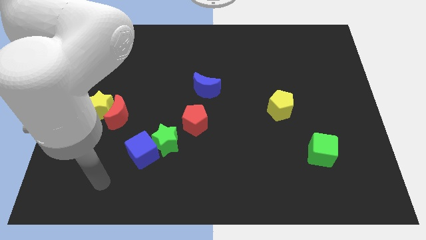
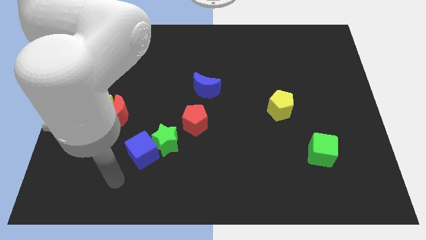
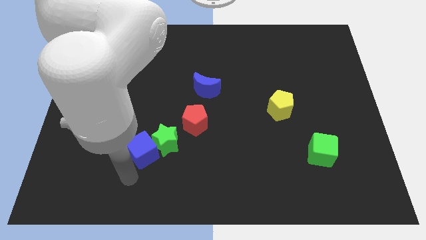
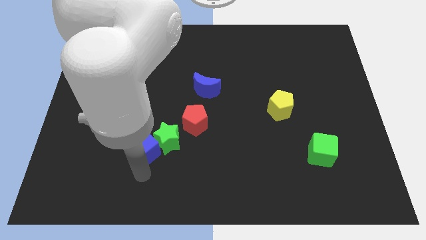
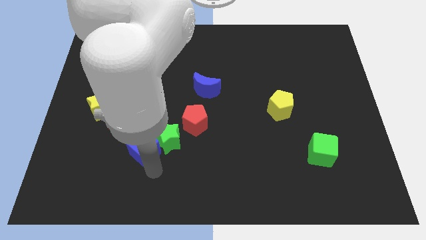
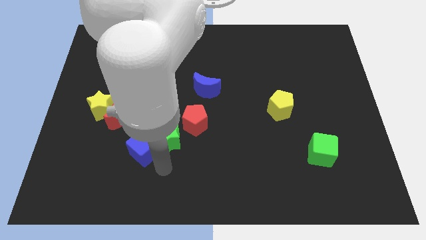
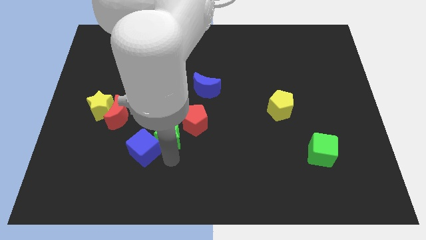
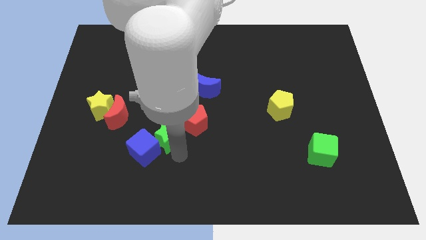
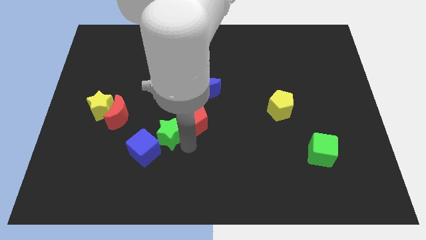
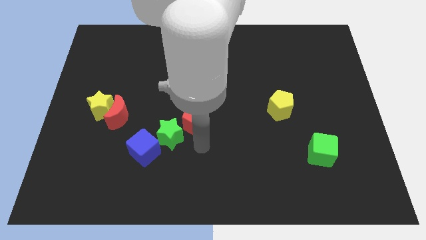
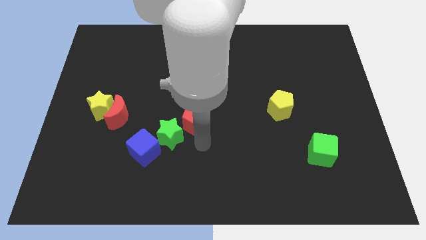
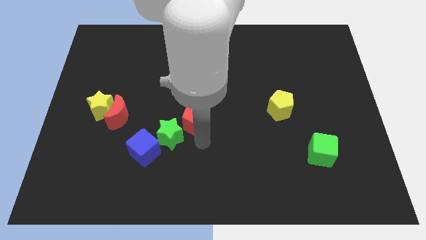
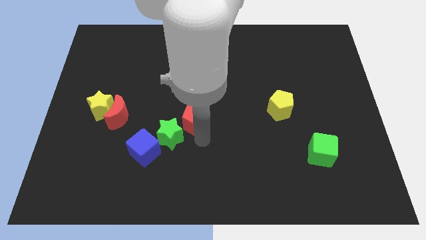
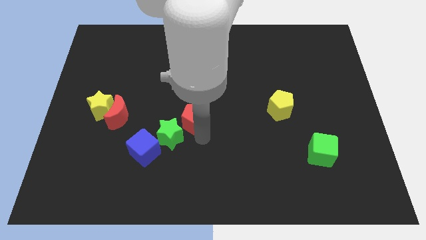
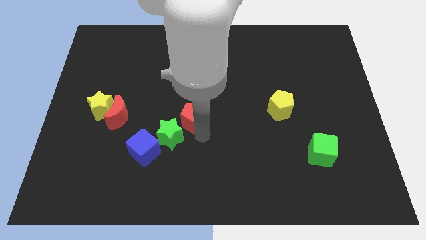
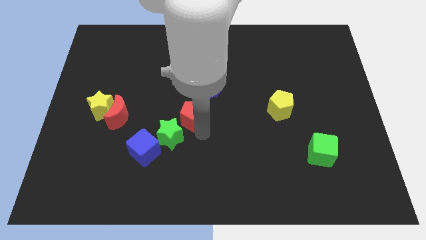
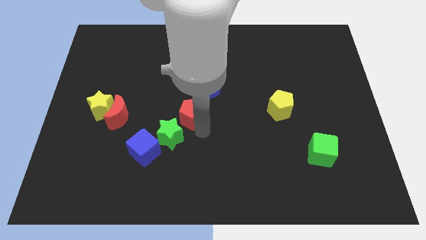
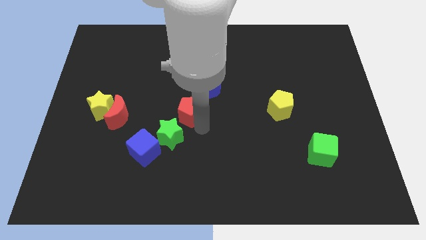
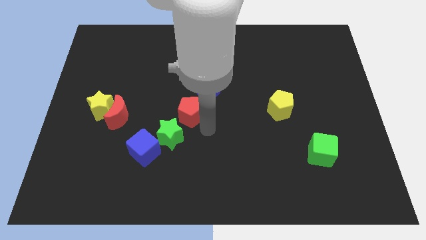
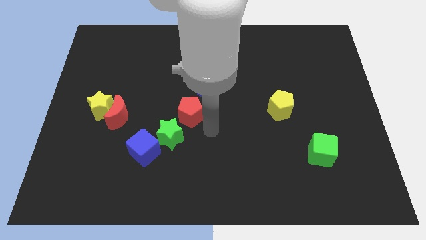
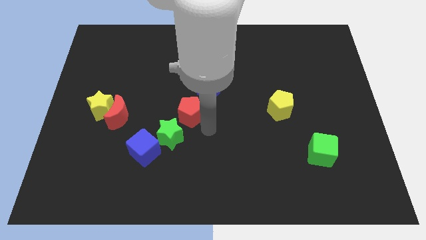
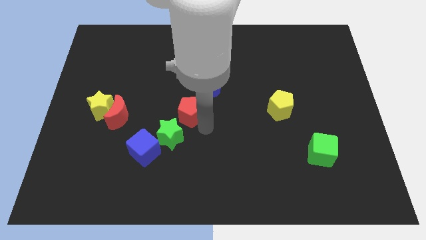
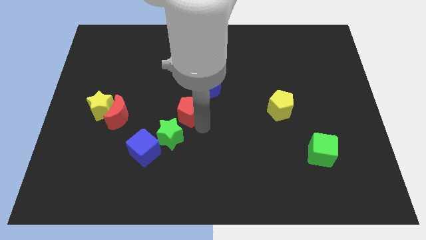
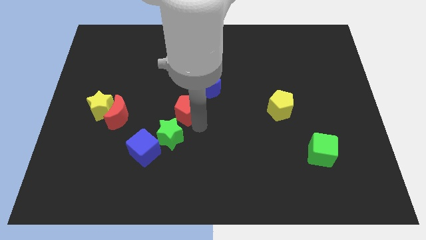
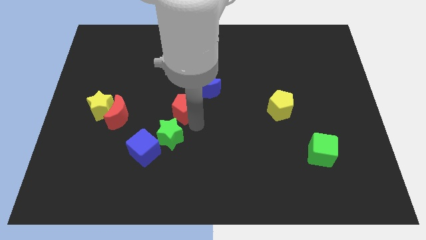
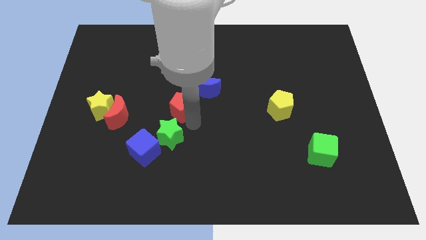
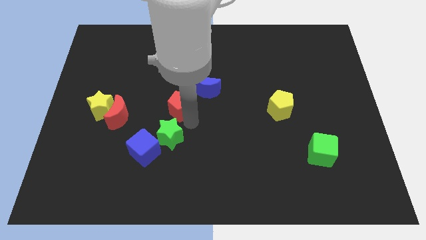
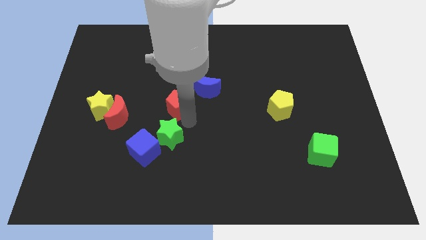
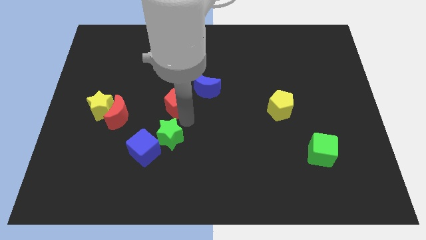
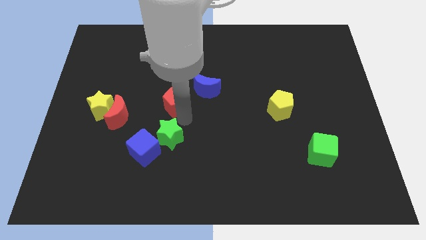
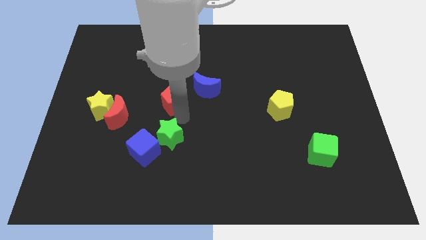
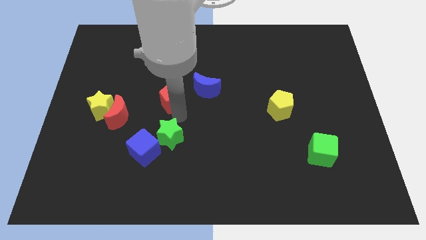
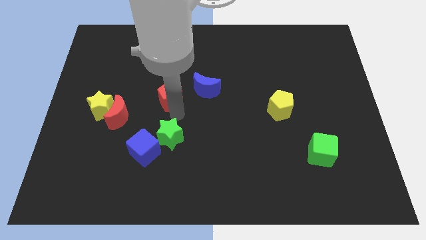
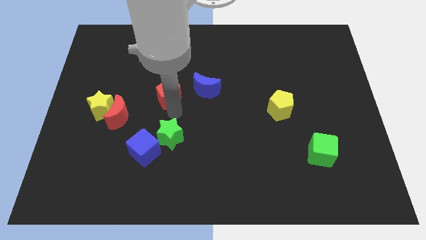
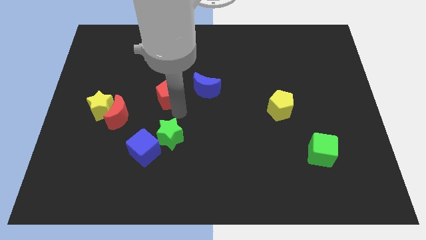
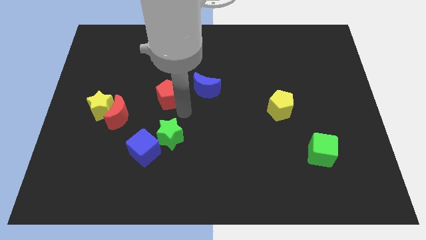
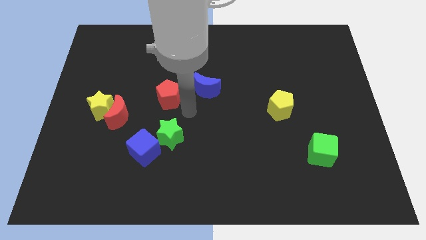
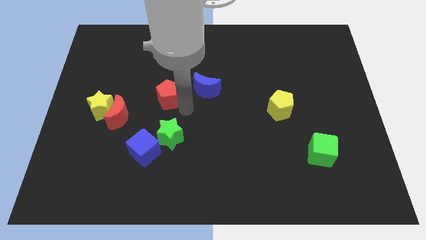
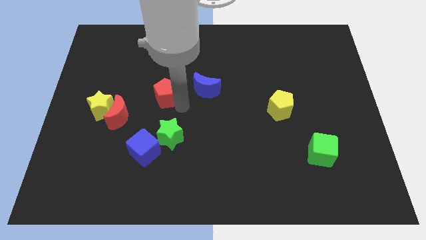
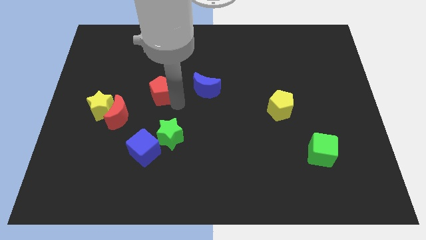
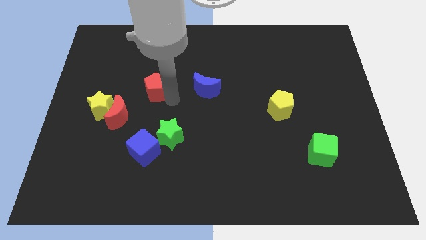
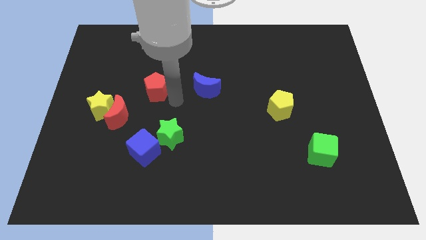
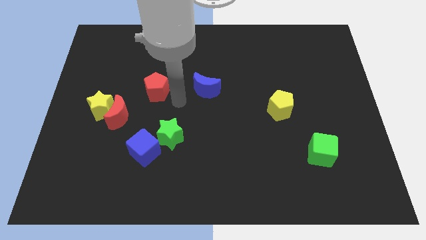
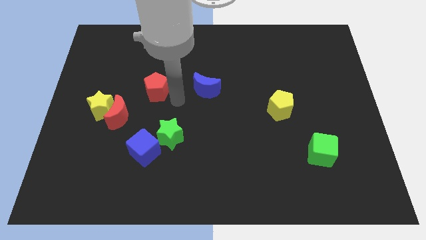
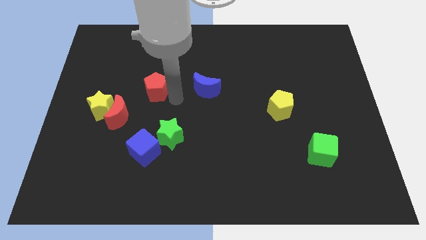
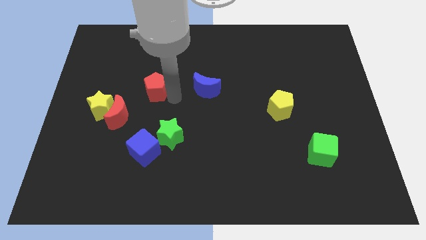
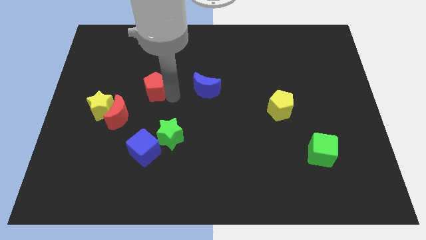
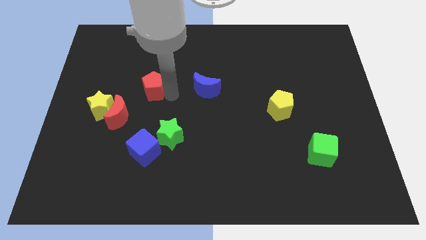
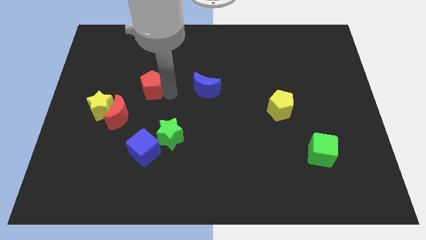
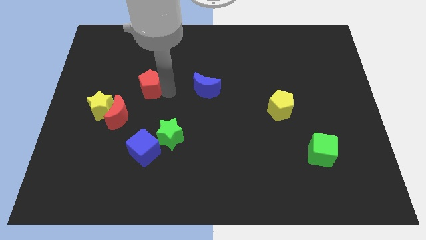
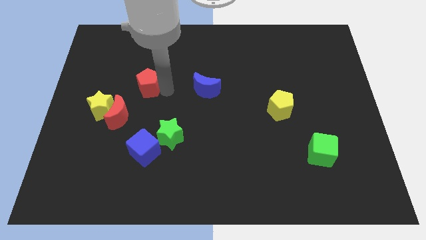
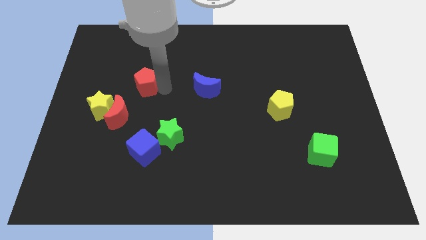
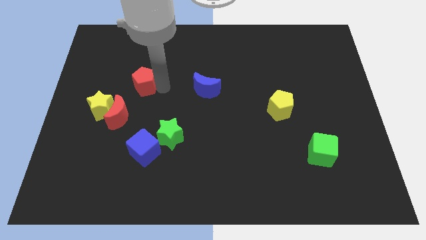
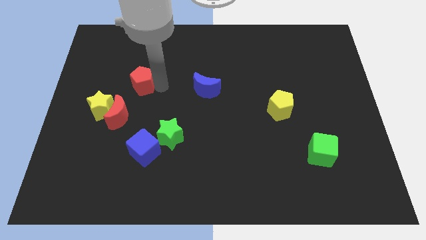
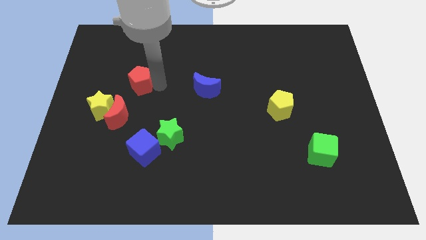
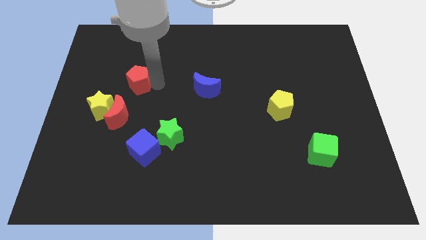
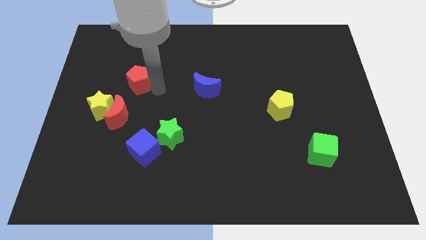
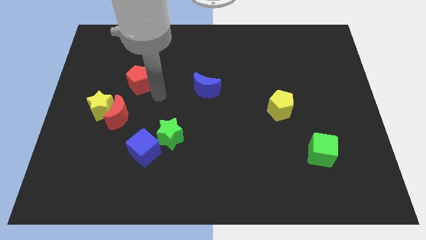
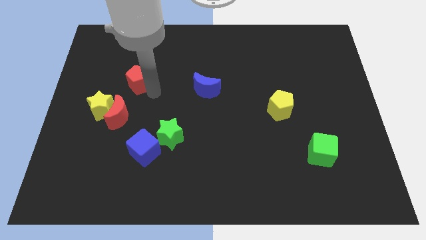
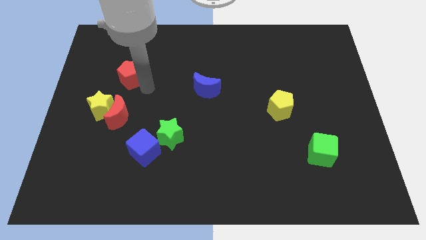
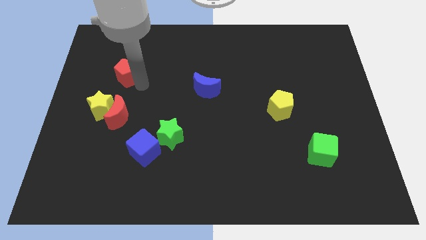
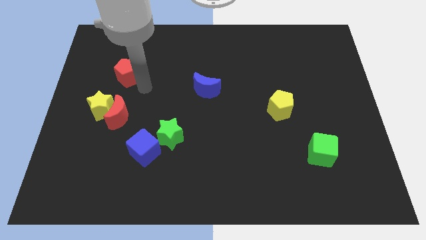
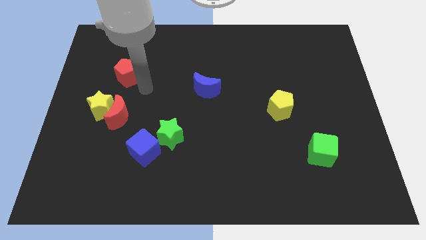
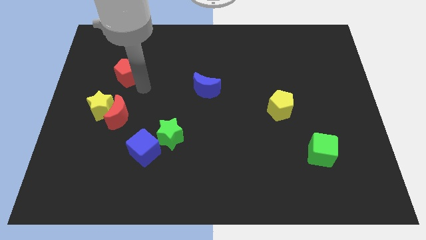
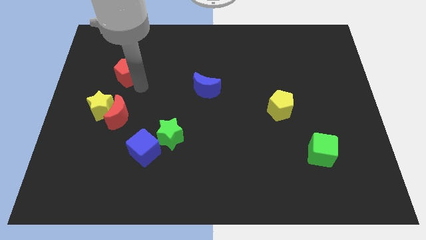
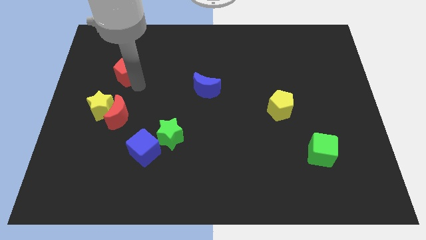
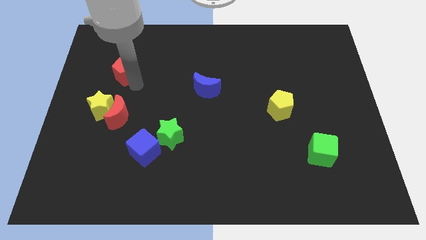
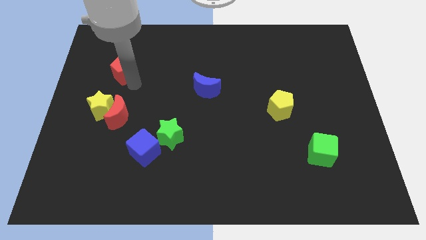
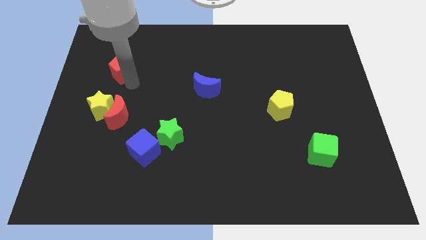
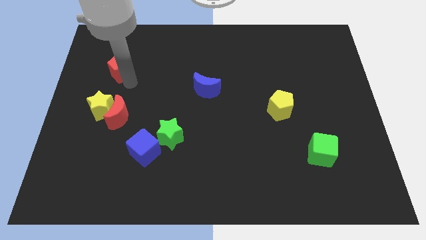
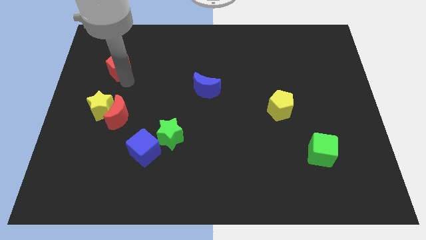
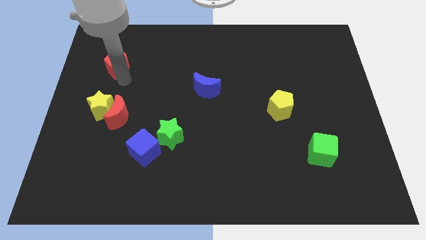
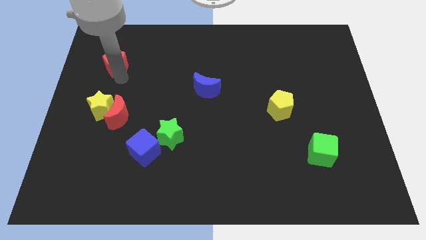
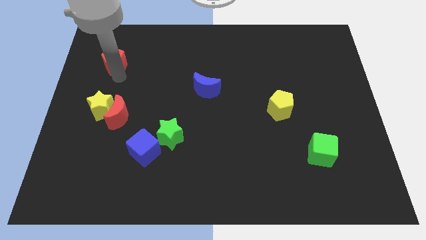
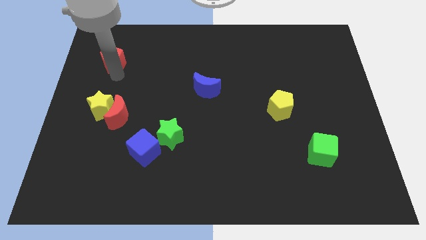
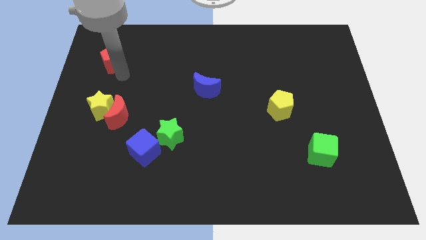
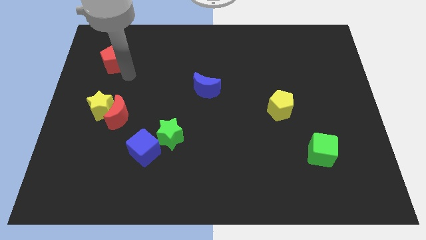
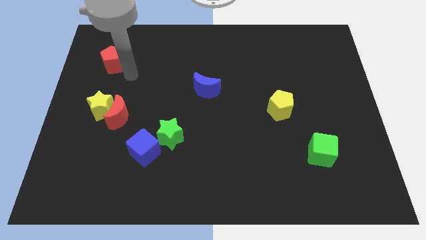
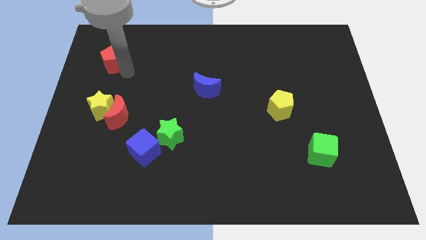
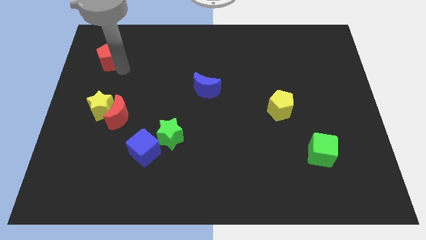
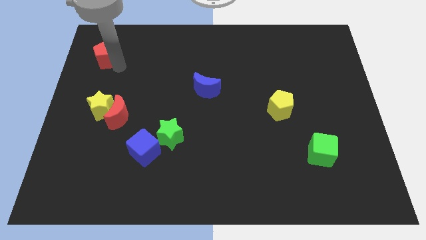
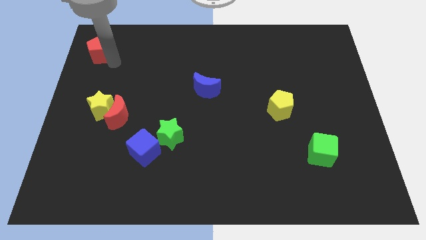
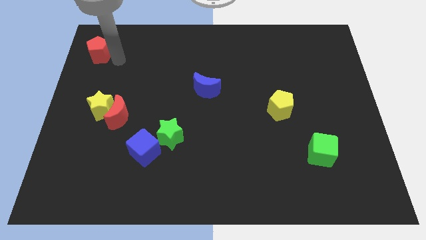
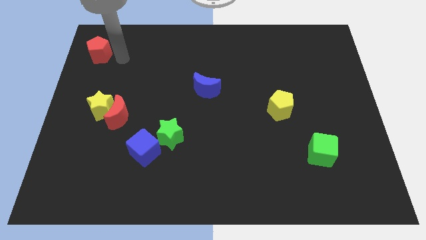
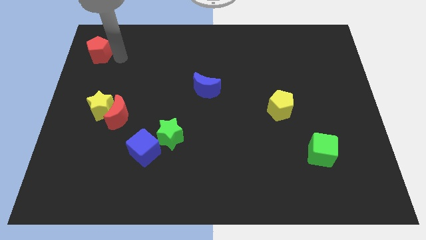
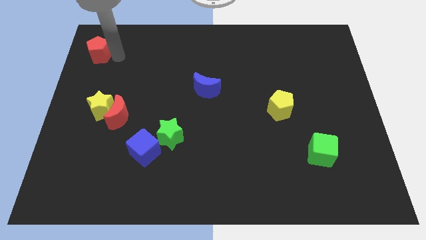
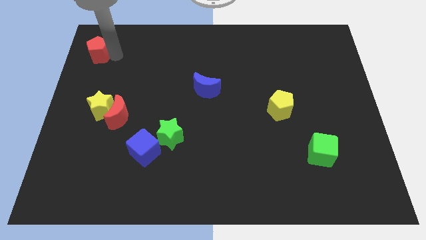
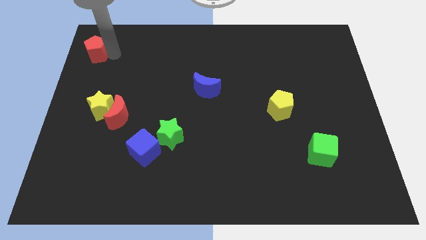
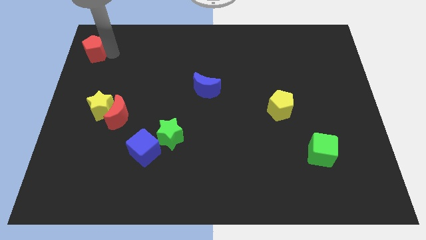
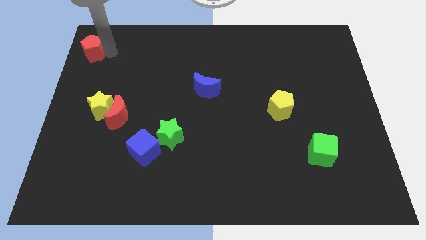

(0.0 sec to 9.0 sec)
move the red pentagon to the top left of the board
